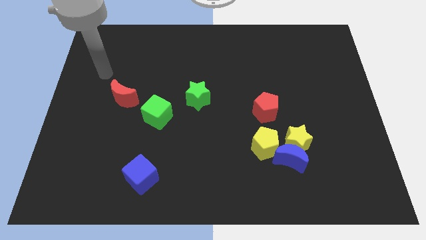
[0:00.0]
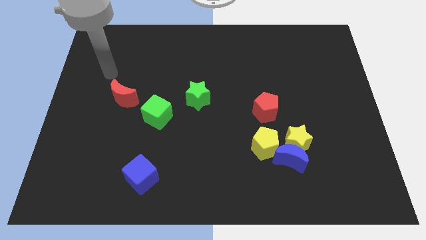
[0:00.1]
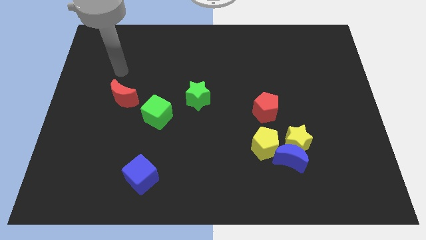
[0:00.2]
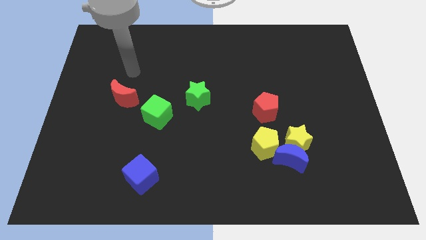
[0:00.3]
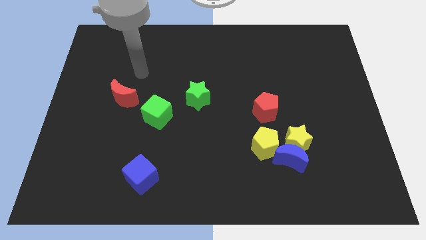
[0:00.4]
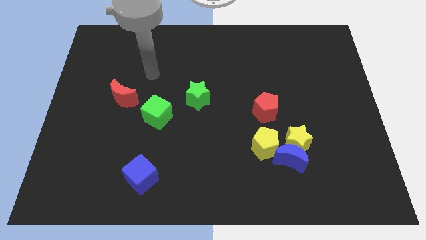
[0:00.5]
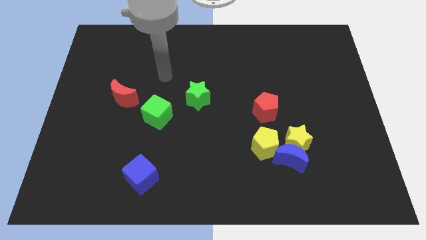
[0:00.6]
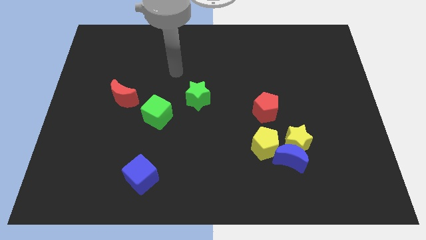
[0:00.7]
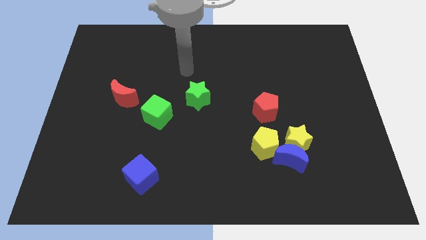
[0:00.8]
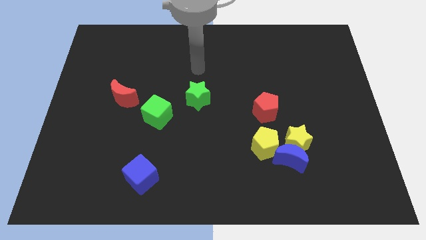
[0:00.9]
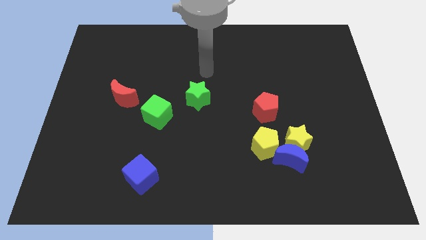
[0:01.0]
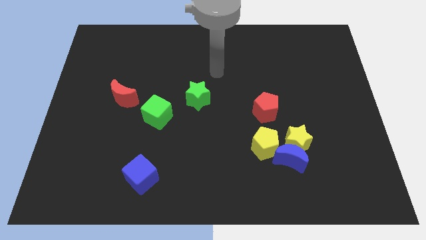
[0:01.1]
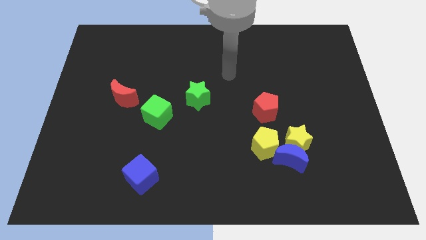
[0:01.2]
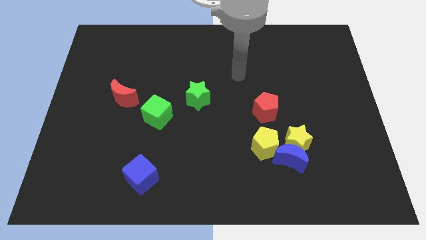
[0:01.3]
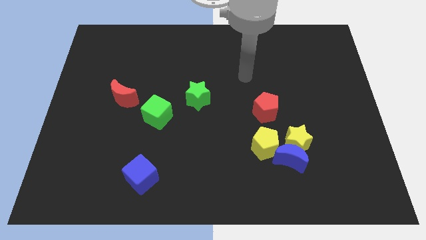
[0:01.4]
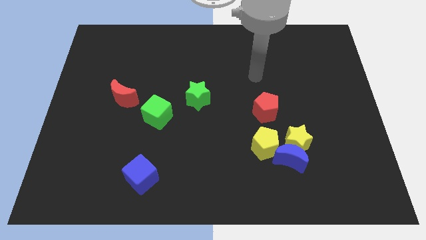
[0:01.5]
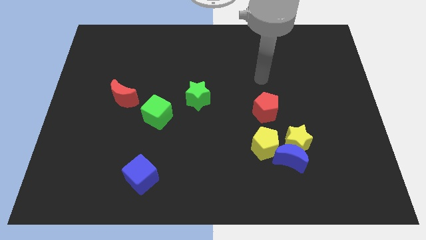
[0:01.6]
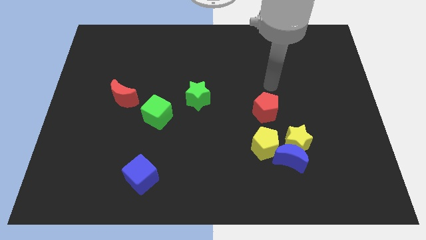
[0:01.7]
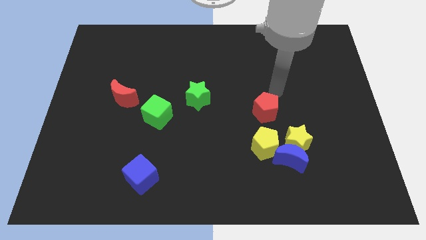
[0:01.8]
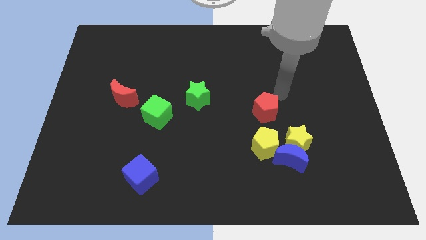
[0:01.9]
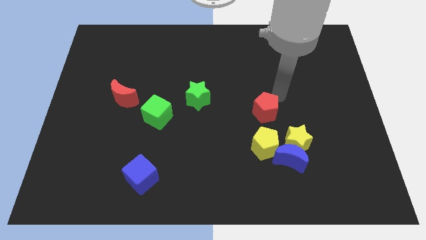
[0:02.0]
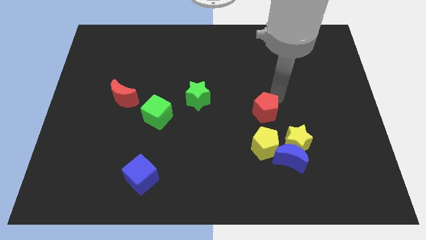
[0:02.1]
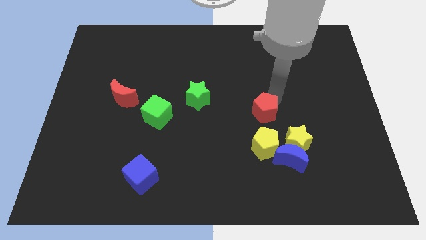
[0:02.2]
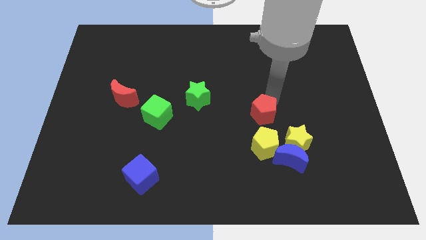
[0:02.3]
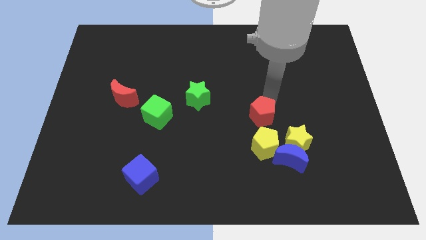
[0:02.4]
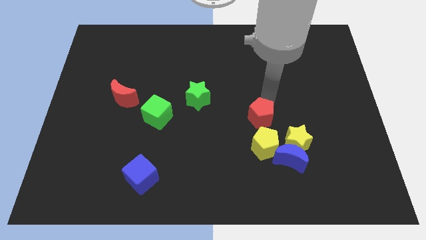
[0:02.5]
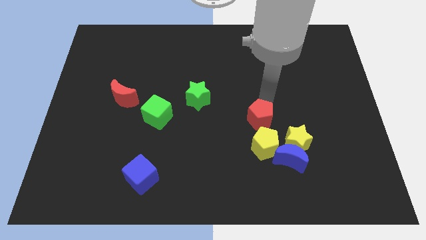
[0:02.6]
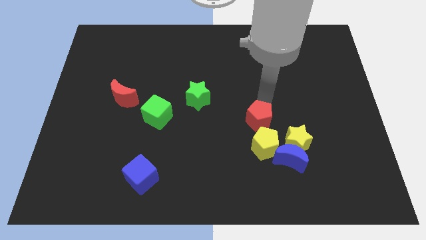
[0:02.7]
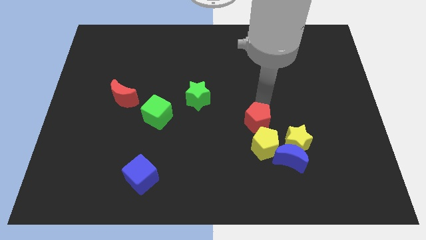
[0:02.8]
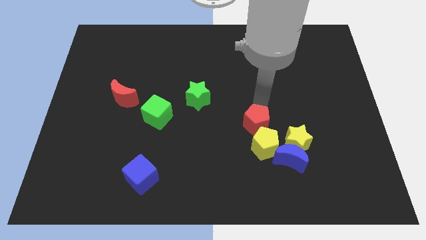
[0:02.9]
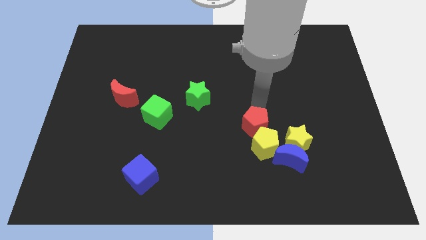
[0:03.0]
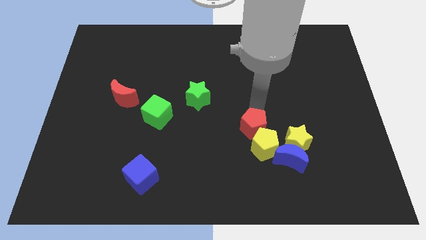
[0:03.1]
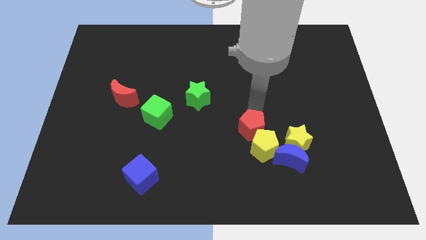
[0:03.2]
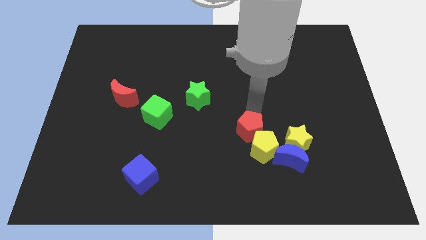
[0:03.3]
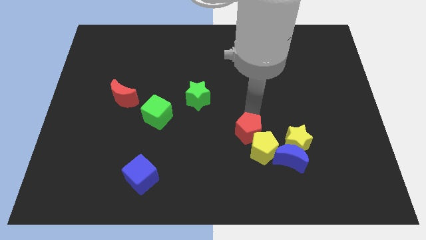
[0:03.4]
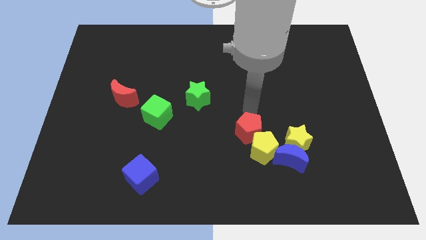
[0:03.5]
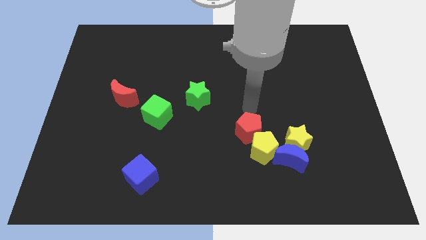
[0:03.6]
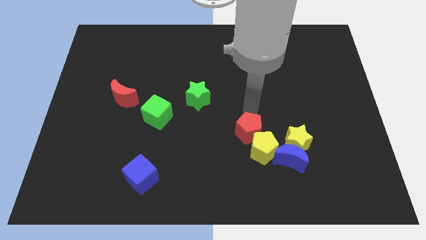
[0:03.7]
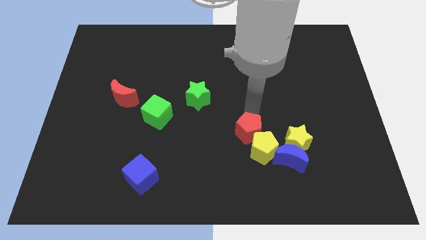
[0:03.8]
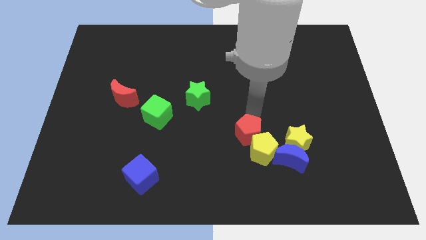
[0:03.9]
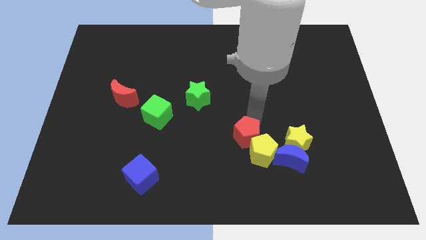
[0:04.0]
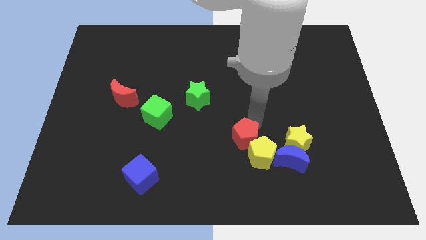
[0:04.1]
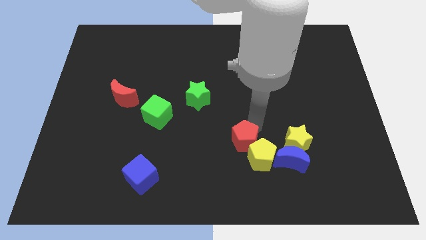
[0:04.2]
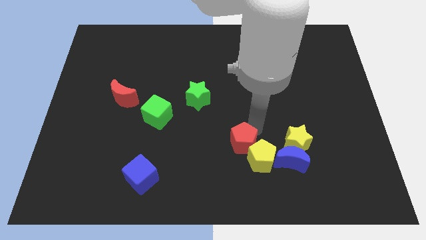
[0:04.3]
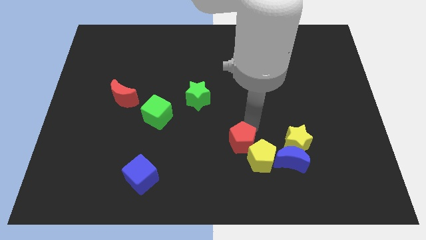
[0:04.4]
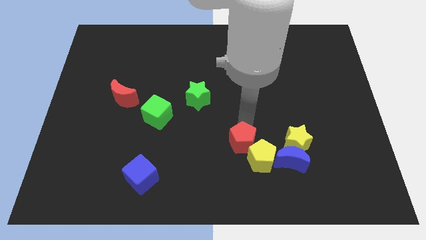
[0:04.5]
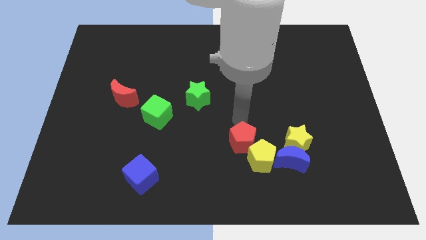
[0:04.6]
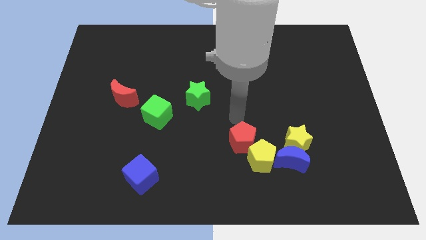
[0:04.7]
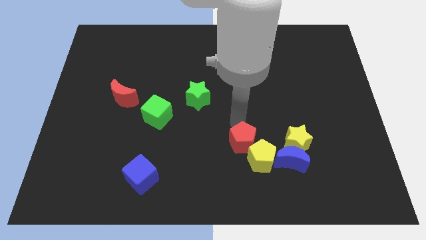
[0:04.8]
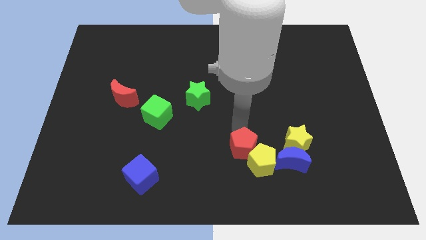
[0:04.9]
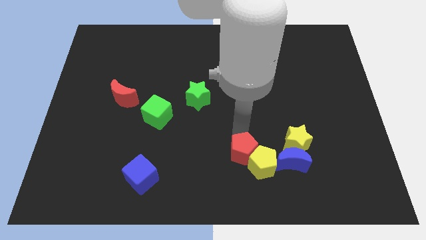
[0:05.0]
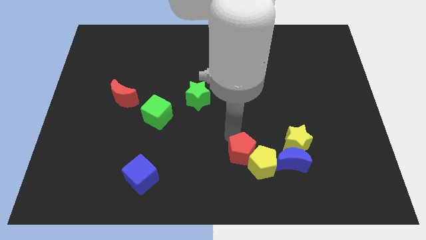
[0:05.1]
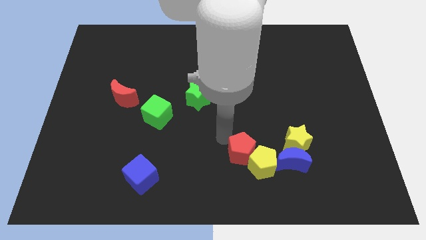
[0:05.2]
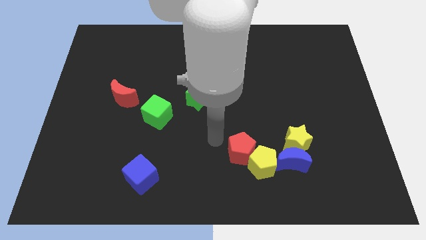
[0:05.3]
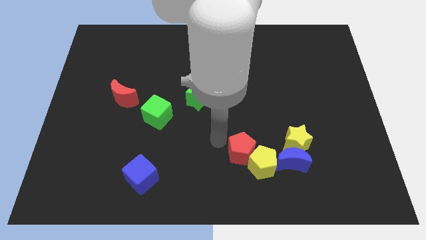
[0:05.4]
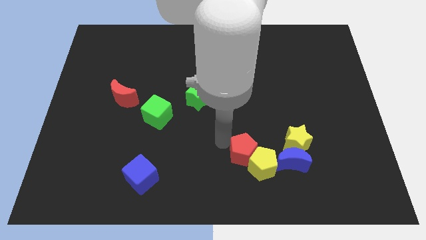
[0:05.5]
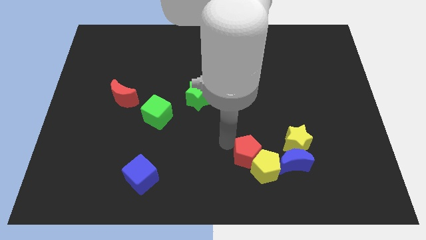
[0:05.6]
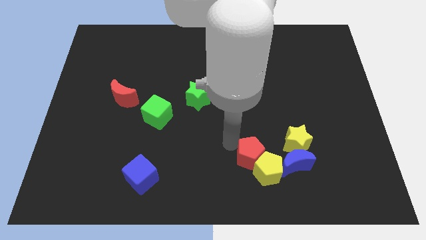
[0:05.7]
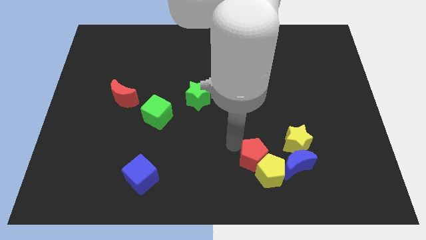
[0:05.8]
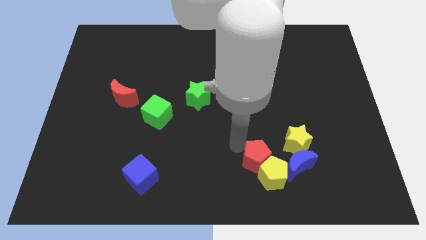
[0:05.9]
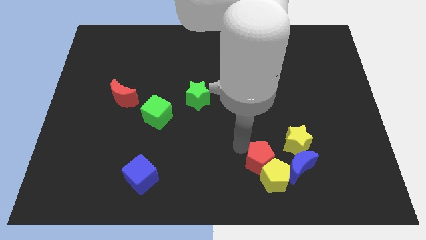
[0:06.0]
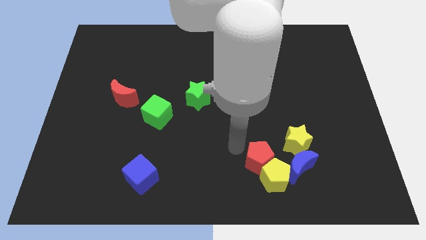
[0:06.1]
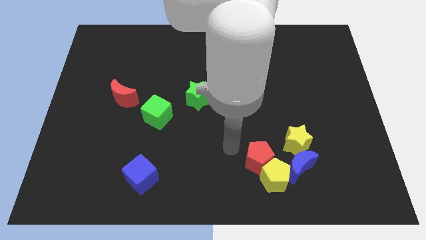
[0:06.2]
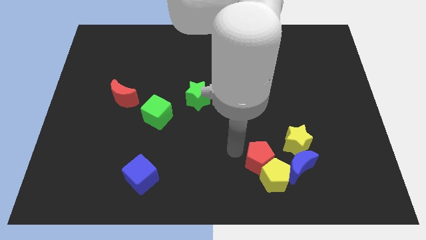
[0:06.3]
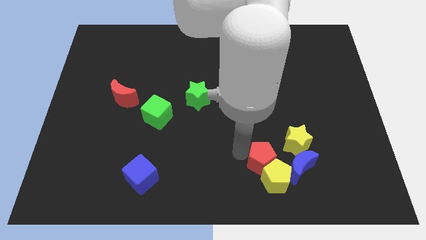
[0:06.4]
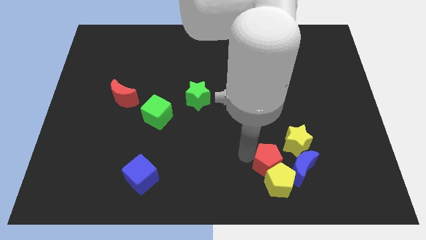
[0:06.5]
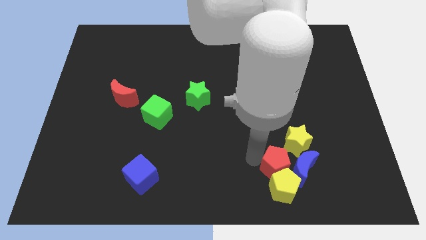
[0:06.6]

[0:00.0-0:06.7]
move the red pentagon towards the blue moon

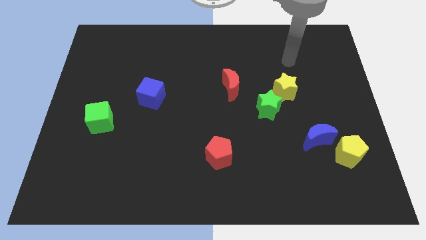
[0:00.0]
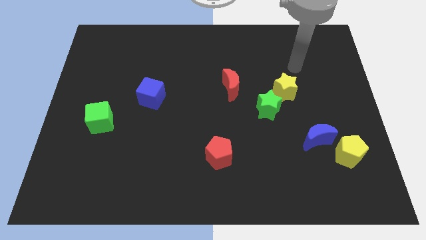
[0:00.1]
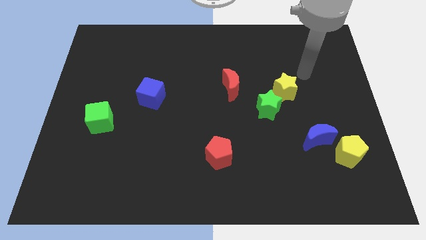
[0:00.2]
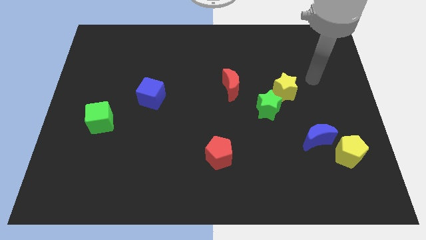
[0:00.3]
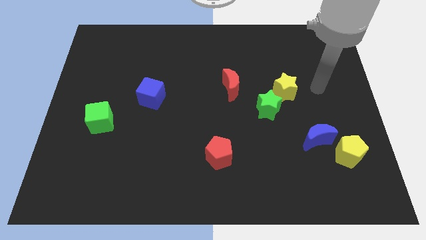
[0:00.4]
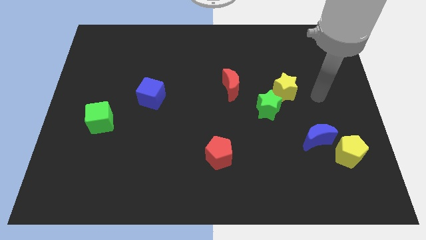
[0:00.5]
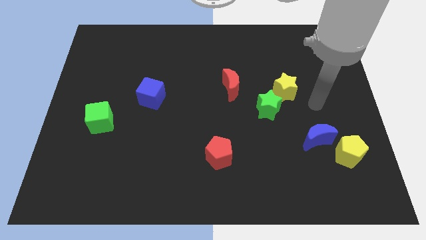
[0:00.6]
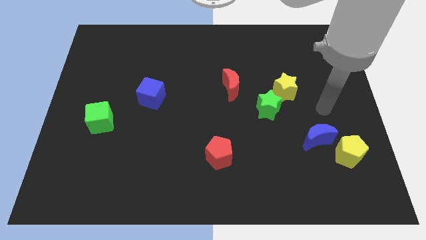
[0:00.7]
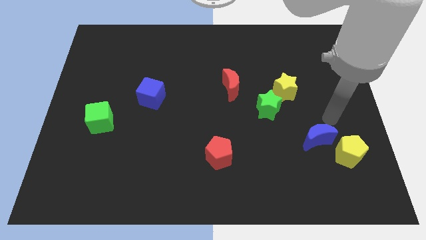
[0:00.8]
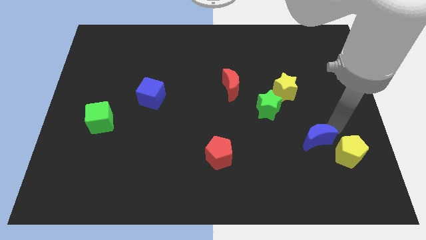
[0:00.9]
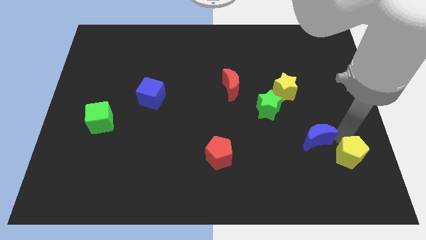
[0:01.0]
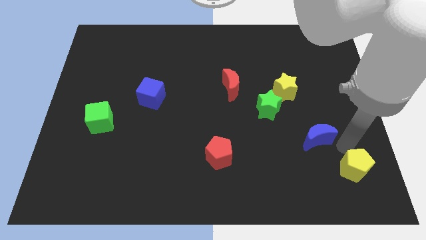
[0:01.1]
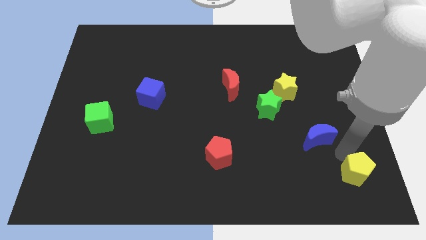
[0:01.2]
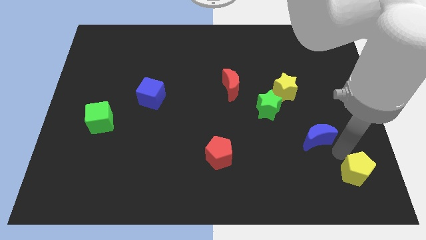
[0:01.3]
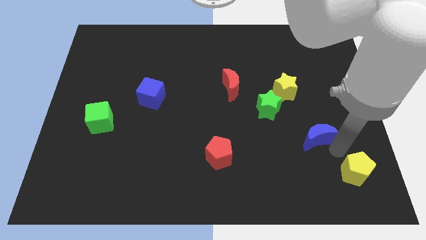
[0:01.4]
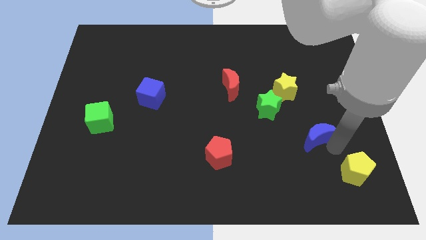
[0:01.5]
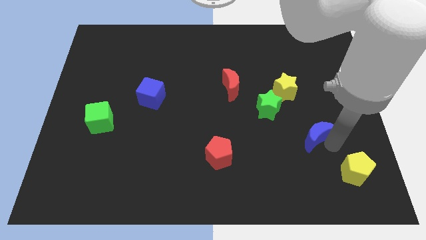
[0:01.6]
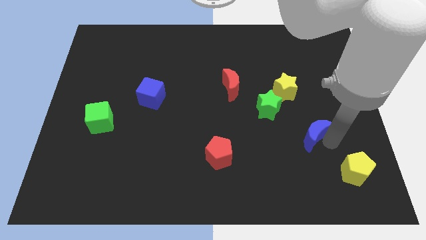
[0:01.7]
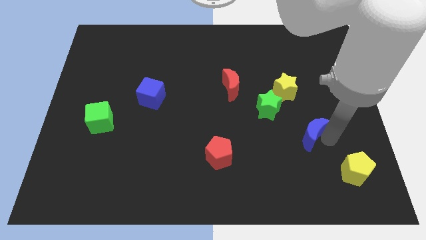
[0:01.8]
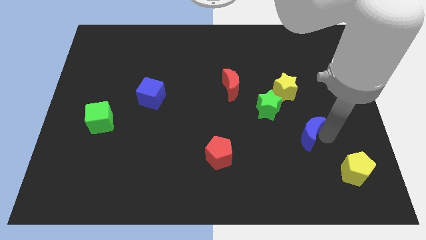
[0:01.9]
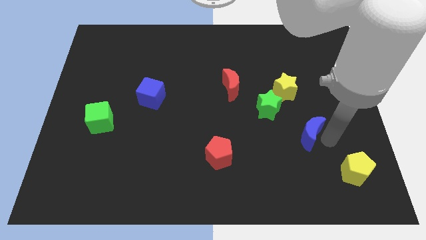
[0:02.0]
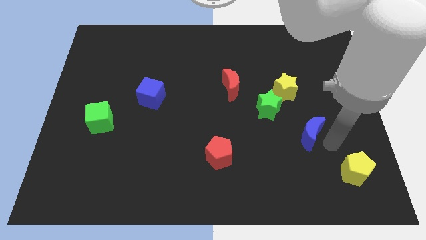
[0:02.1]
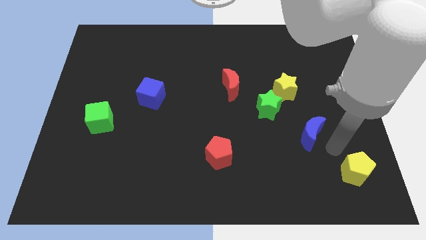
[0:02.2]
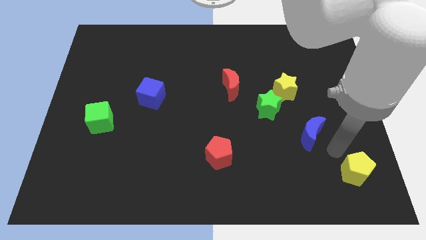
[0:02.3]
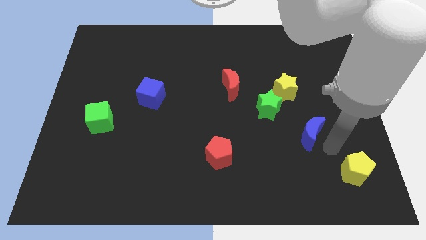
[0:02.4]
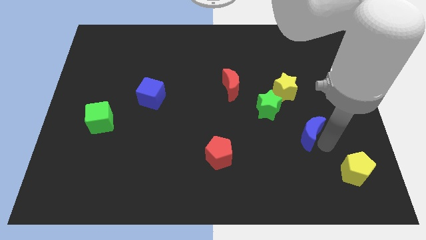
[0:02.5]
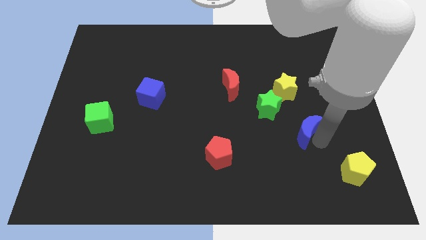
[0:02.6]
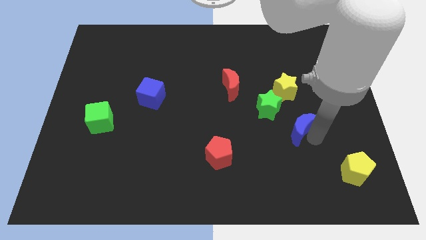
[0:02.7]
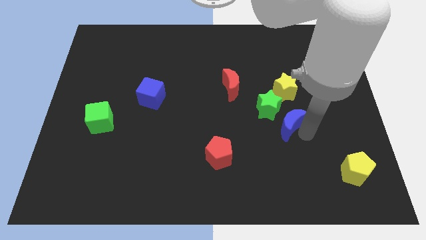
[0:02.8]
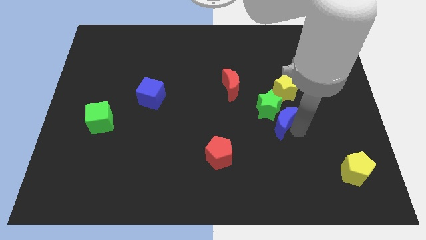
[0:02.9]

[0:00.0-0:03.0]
move the blue moon next to the green star
